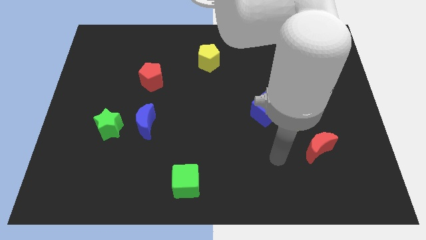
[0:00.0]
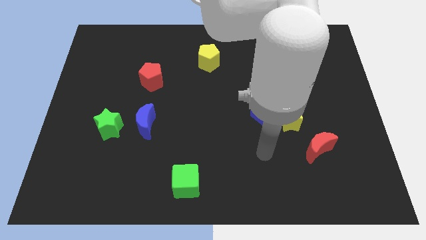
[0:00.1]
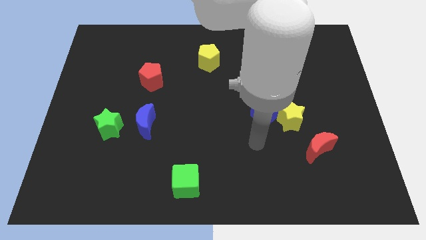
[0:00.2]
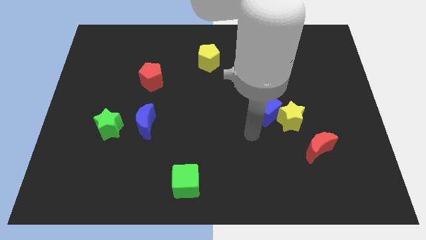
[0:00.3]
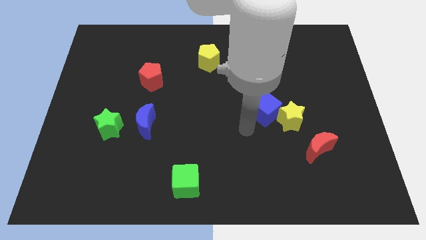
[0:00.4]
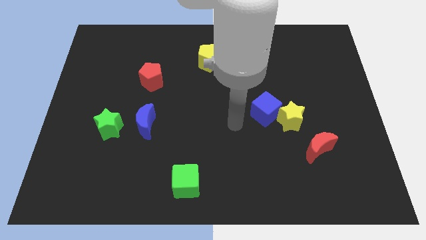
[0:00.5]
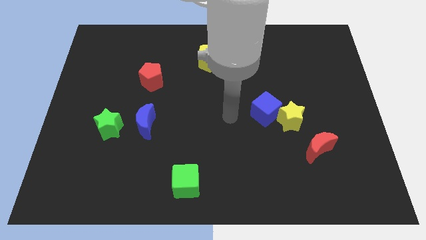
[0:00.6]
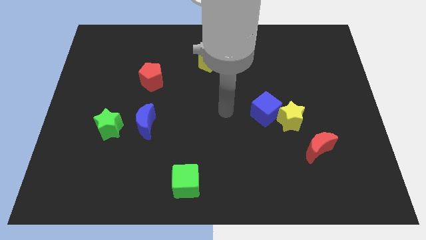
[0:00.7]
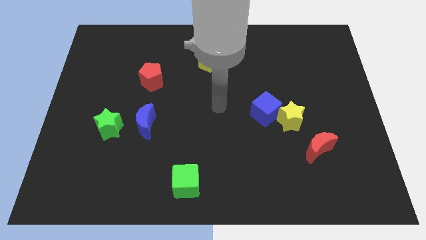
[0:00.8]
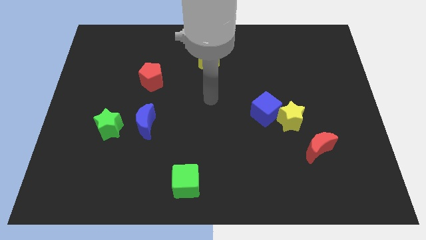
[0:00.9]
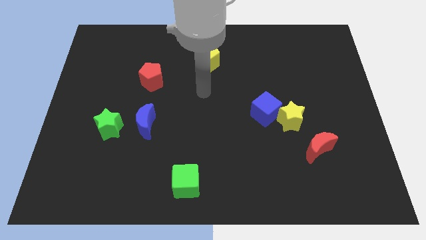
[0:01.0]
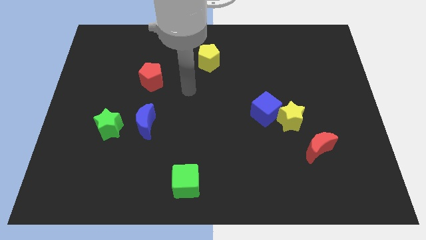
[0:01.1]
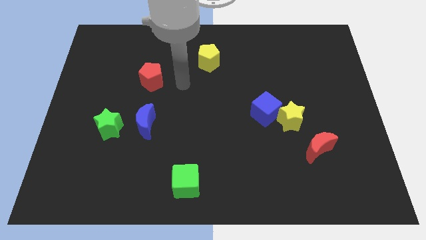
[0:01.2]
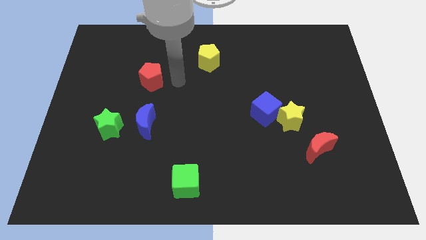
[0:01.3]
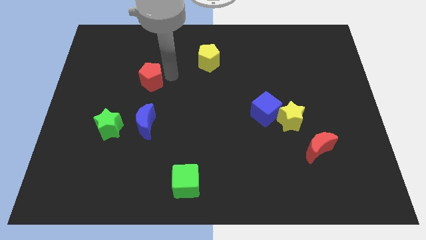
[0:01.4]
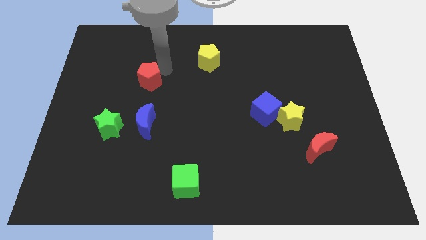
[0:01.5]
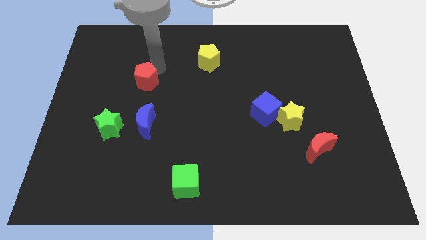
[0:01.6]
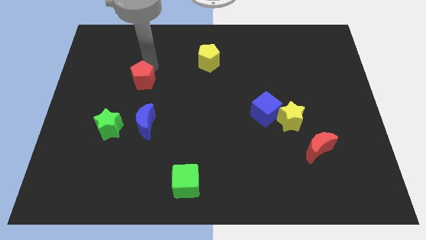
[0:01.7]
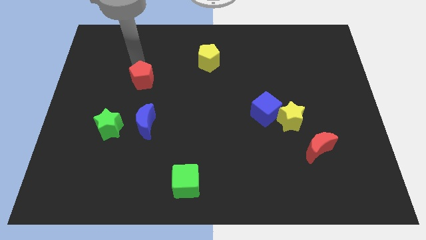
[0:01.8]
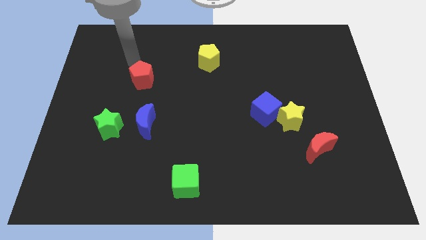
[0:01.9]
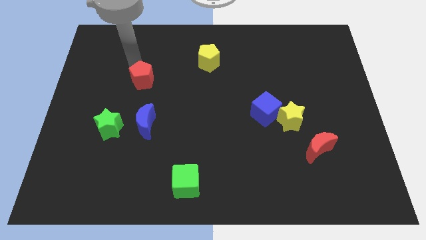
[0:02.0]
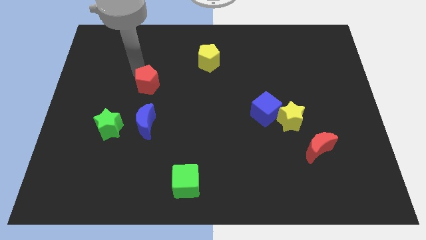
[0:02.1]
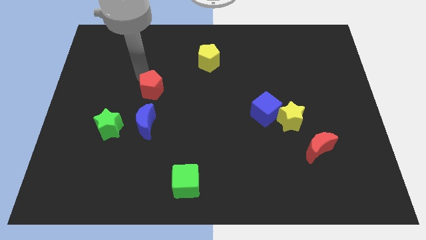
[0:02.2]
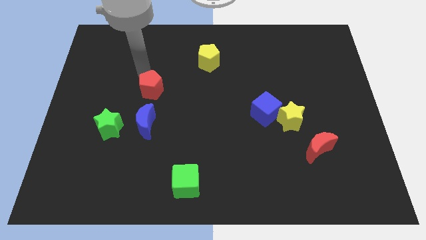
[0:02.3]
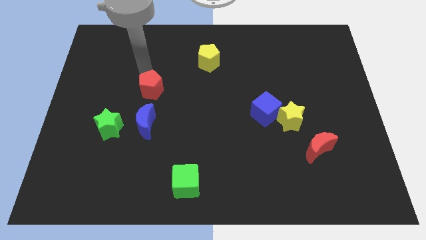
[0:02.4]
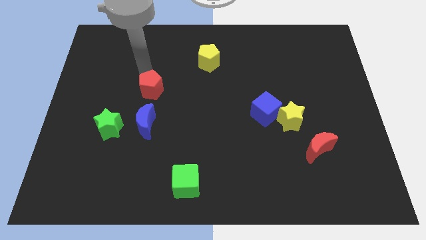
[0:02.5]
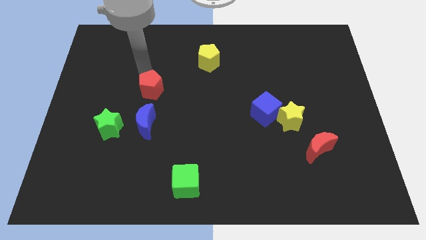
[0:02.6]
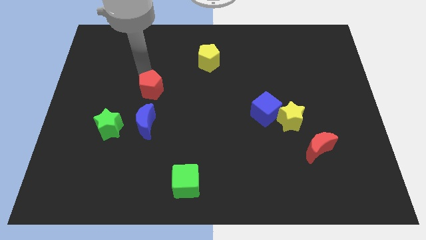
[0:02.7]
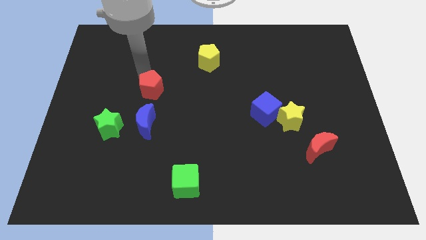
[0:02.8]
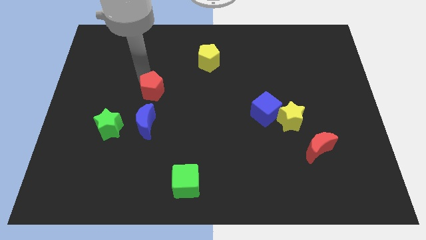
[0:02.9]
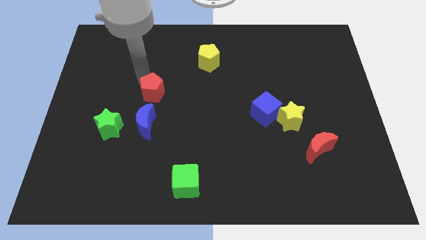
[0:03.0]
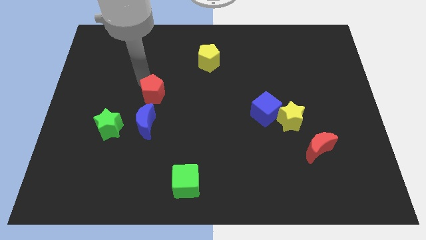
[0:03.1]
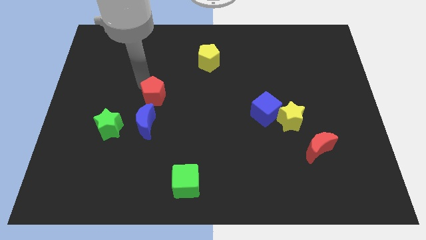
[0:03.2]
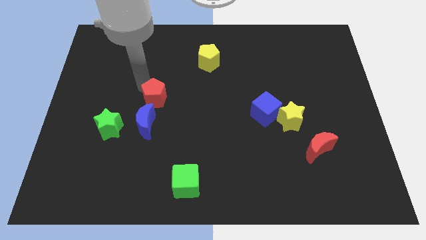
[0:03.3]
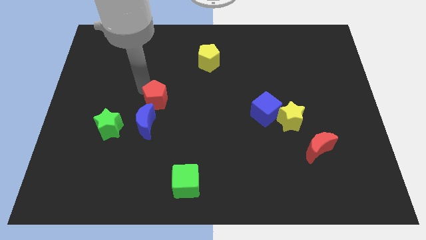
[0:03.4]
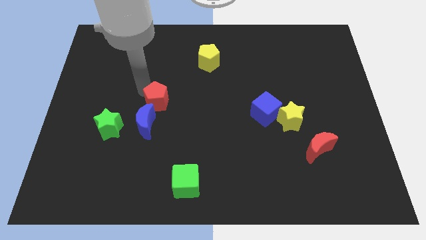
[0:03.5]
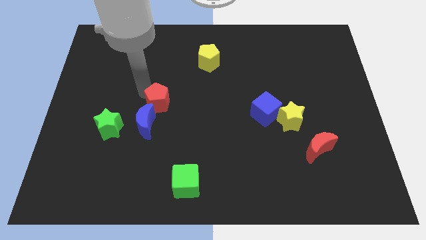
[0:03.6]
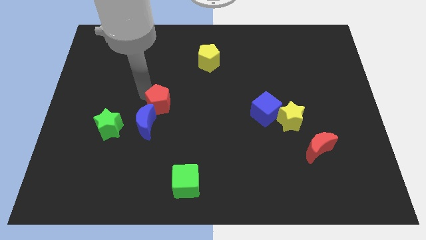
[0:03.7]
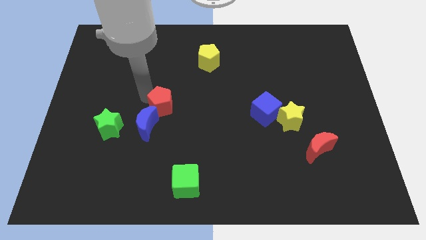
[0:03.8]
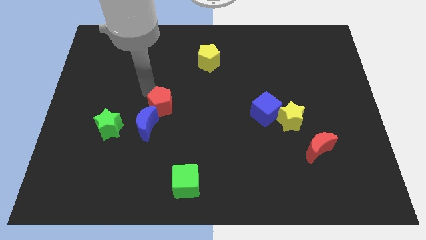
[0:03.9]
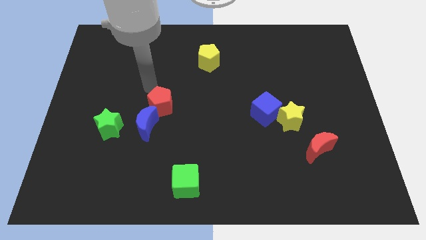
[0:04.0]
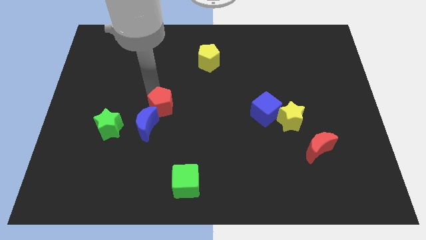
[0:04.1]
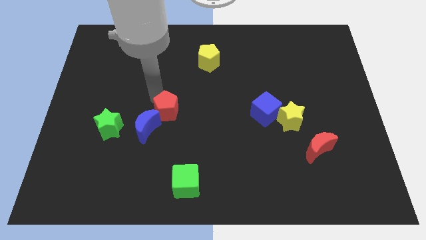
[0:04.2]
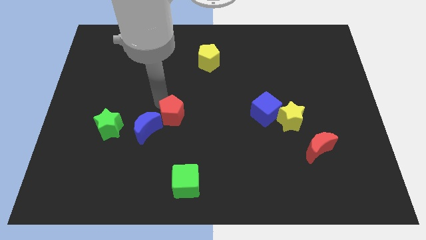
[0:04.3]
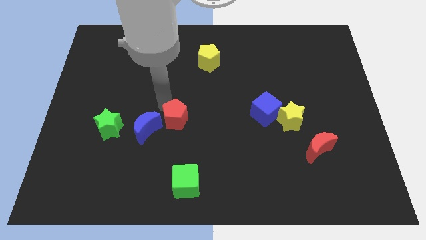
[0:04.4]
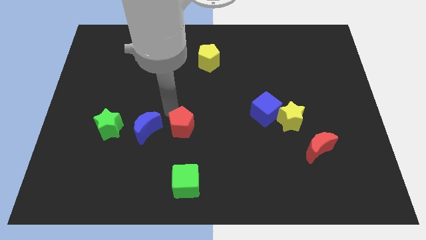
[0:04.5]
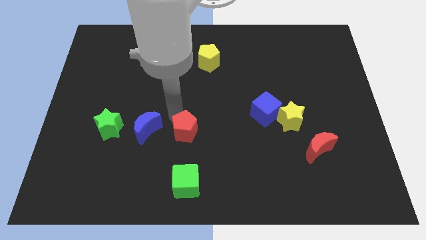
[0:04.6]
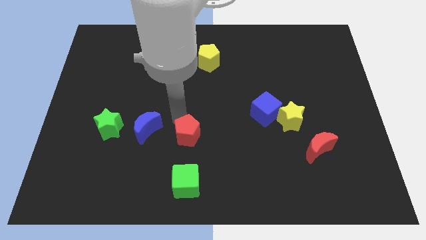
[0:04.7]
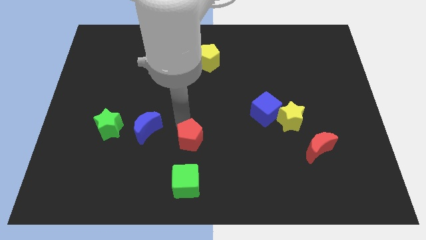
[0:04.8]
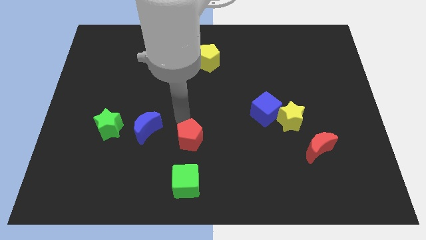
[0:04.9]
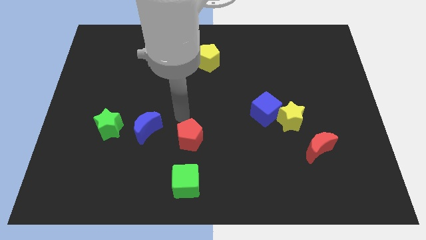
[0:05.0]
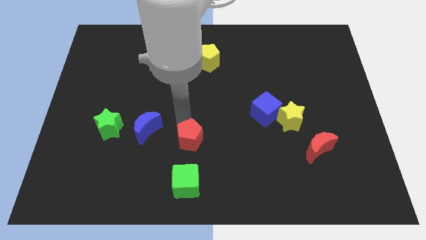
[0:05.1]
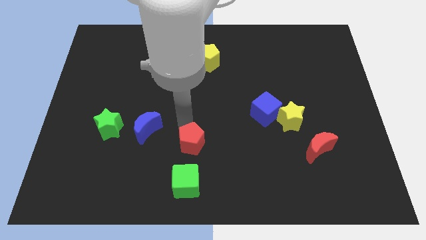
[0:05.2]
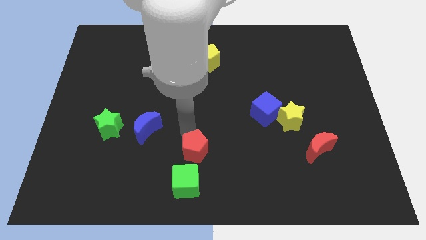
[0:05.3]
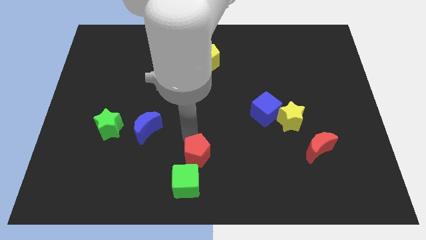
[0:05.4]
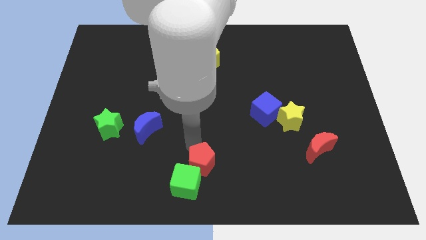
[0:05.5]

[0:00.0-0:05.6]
move the red pentagon to the bottom

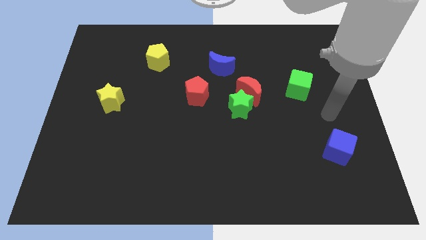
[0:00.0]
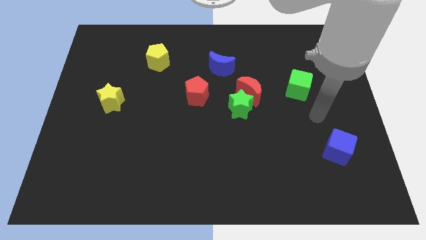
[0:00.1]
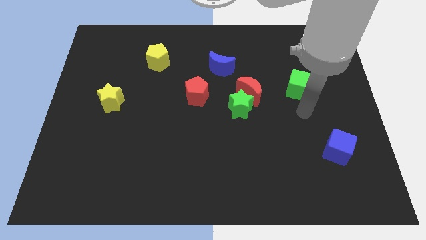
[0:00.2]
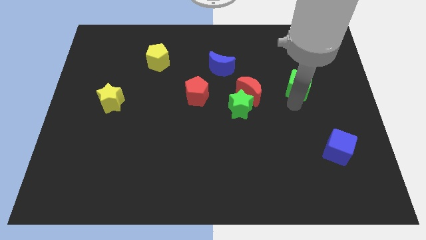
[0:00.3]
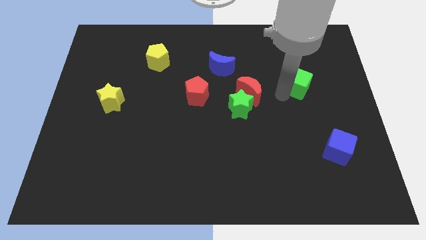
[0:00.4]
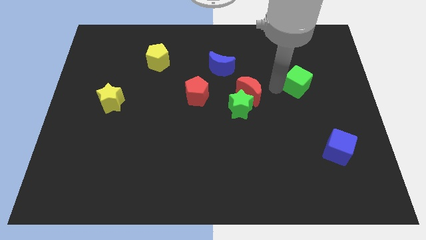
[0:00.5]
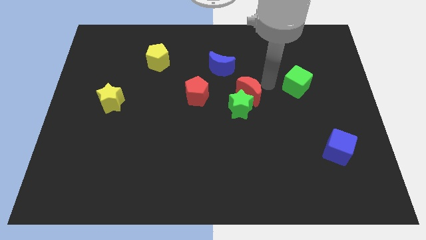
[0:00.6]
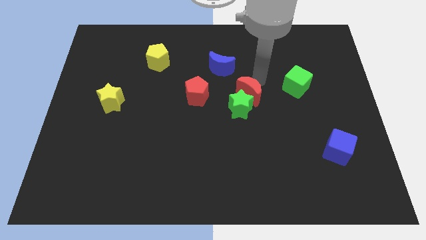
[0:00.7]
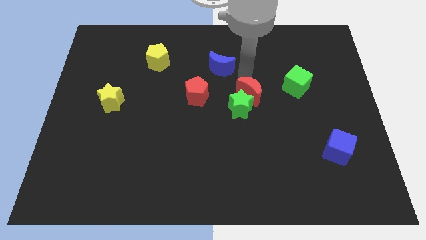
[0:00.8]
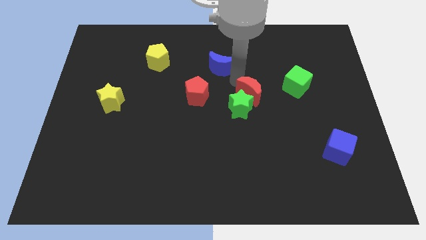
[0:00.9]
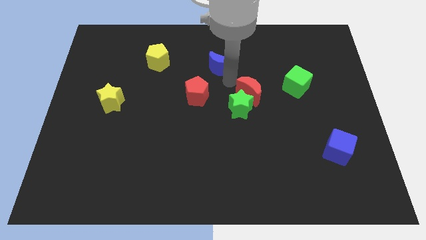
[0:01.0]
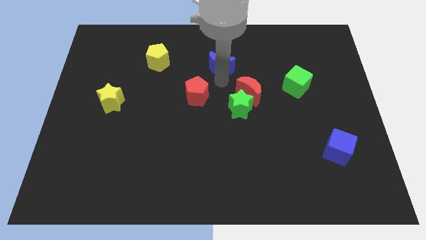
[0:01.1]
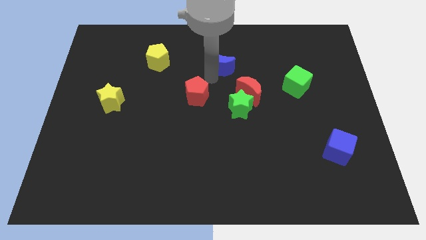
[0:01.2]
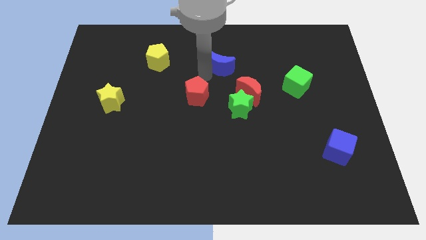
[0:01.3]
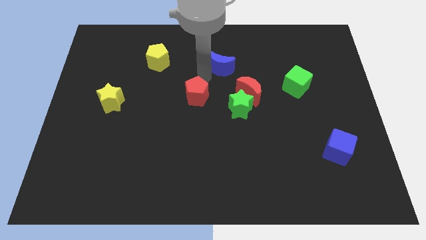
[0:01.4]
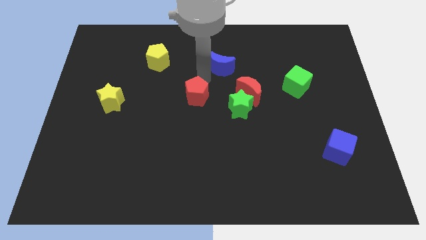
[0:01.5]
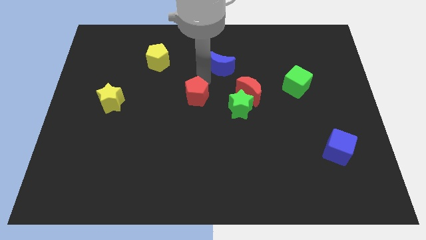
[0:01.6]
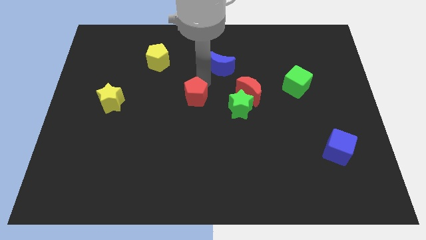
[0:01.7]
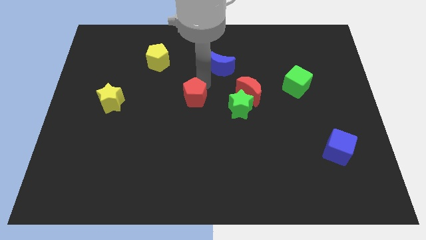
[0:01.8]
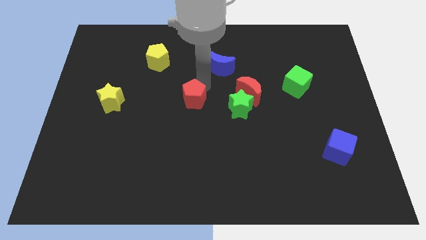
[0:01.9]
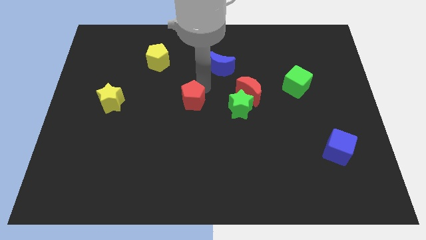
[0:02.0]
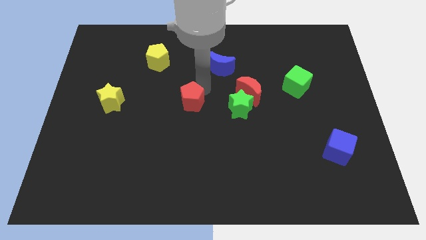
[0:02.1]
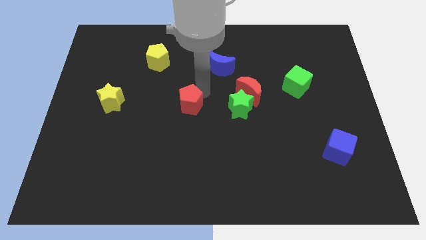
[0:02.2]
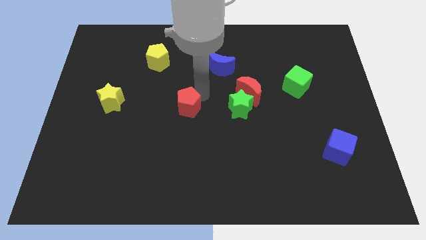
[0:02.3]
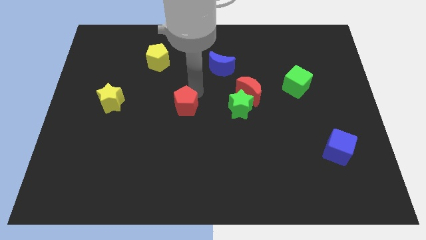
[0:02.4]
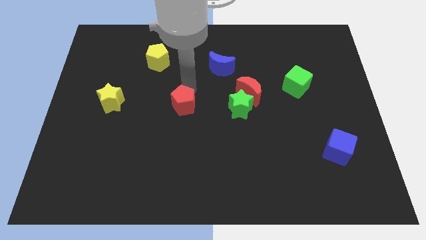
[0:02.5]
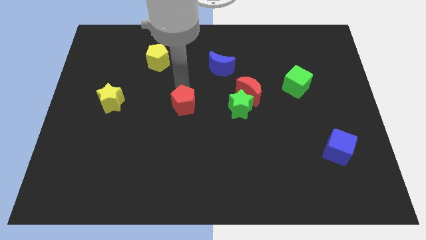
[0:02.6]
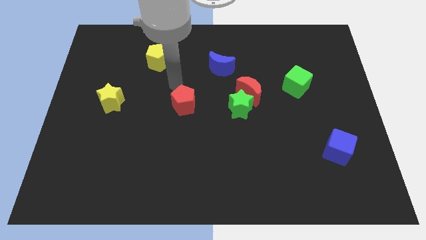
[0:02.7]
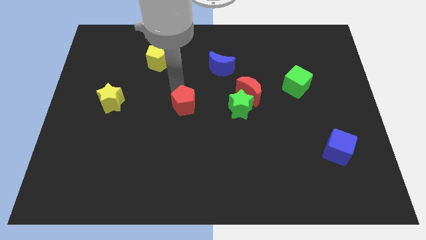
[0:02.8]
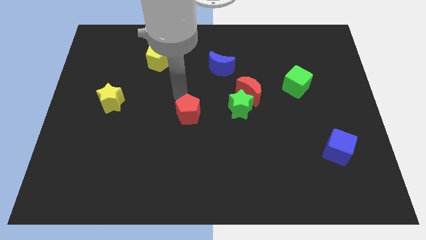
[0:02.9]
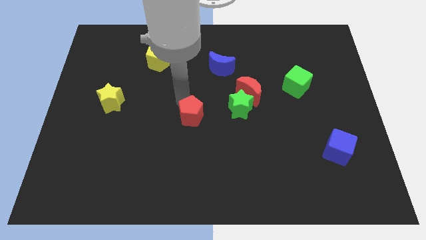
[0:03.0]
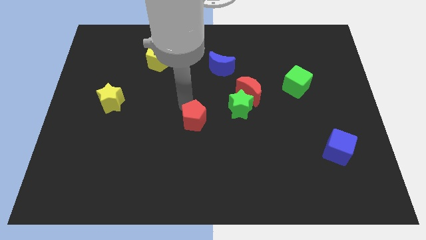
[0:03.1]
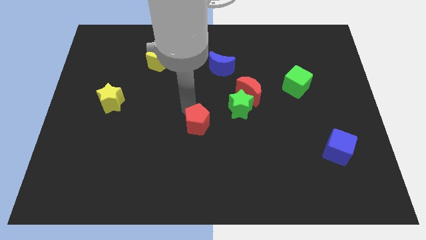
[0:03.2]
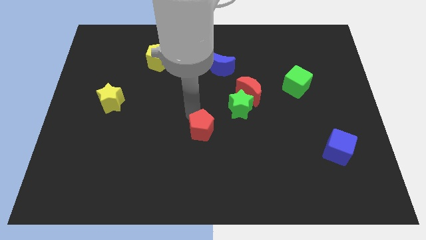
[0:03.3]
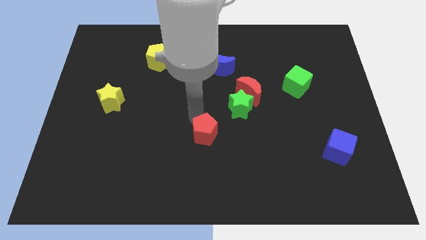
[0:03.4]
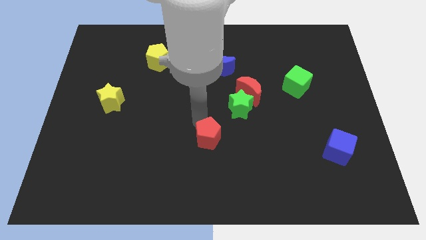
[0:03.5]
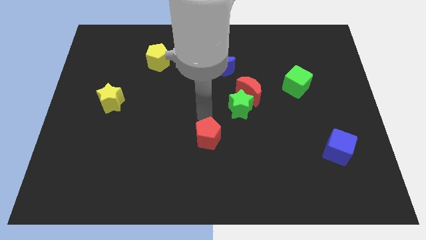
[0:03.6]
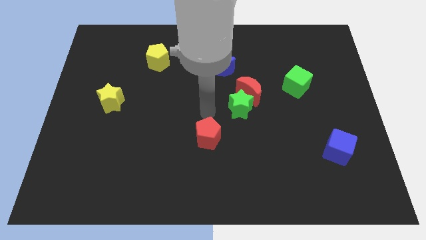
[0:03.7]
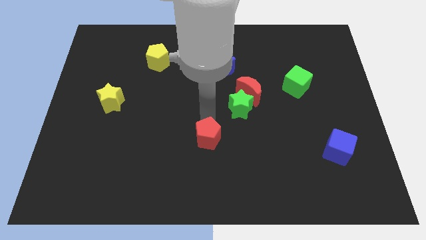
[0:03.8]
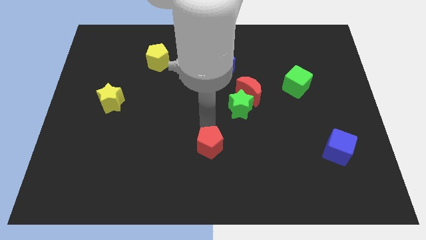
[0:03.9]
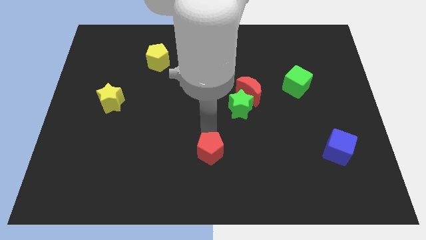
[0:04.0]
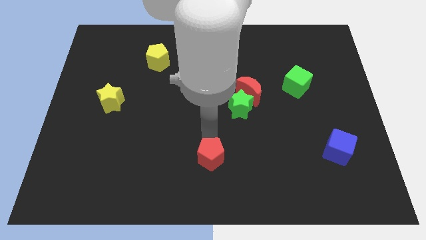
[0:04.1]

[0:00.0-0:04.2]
slide the red pentagon to the bottom side
